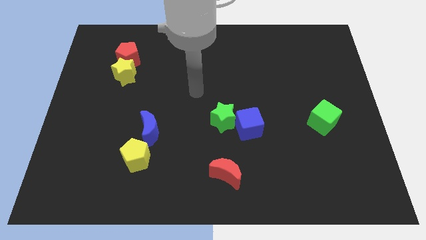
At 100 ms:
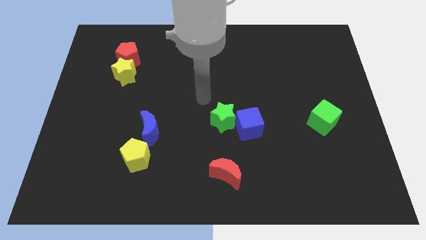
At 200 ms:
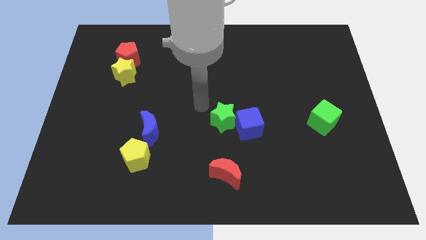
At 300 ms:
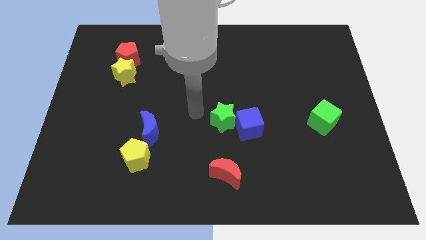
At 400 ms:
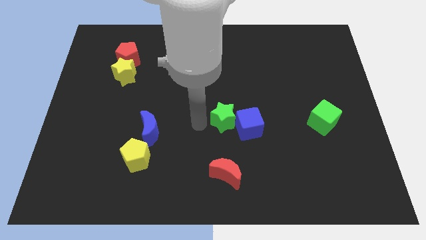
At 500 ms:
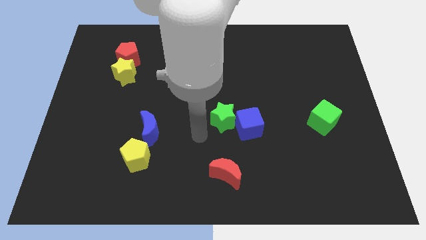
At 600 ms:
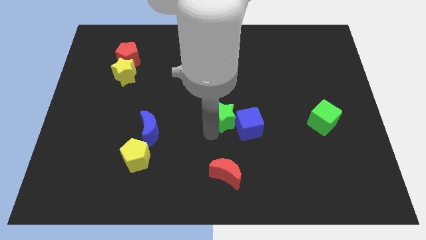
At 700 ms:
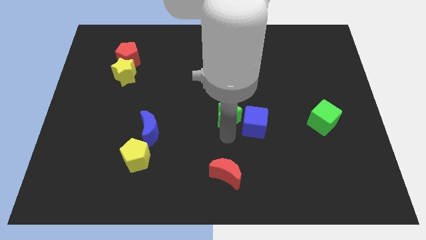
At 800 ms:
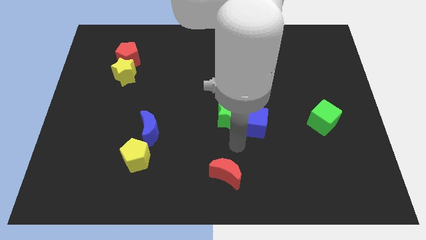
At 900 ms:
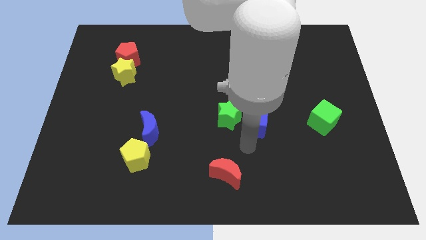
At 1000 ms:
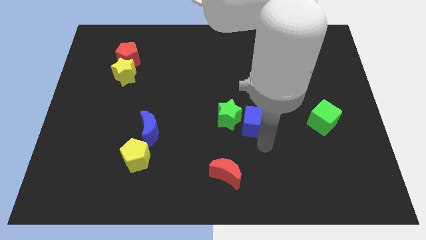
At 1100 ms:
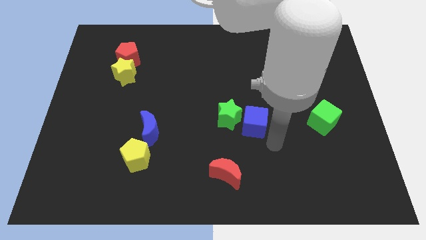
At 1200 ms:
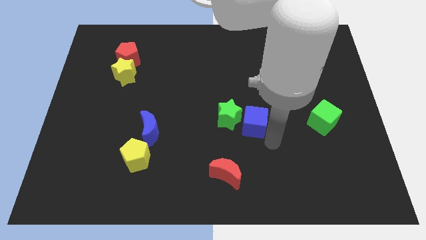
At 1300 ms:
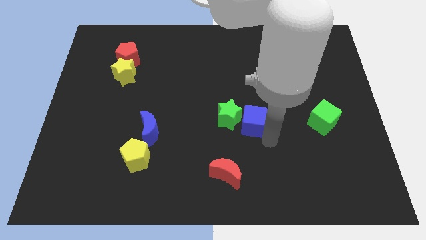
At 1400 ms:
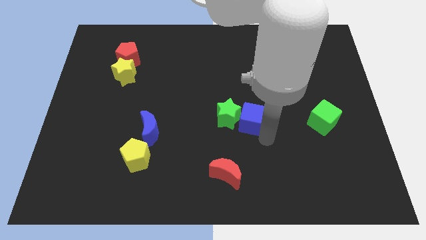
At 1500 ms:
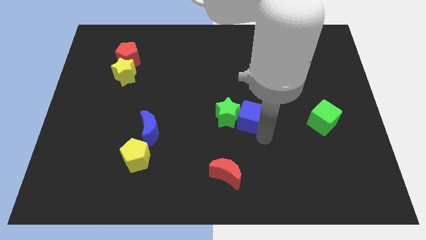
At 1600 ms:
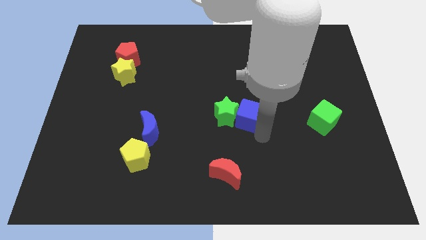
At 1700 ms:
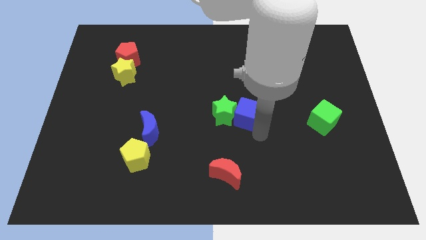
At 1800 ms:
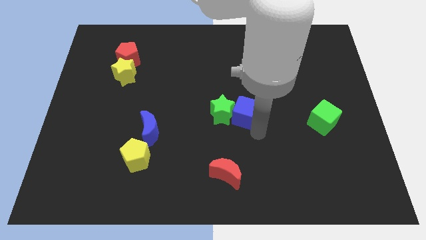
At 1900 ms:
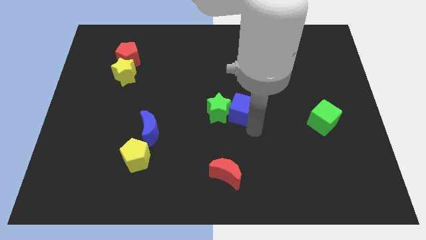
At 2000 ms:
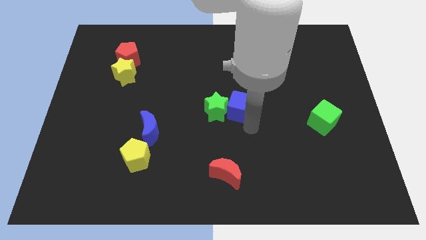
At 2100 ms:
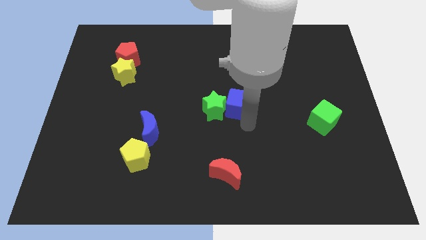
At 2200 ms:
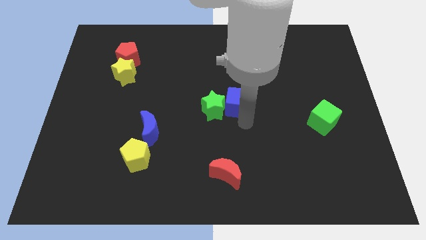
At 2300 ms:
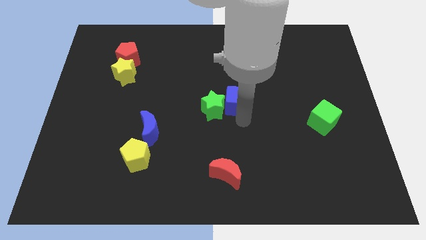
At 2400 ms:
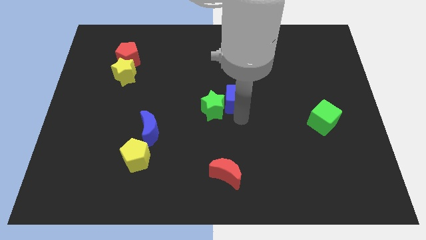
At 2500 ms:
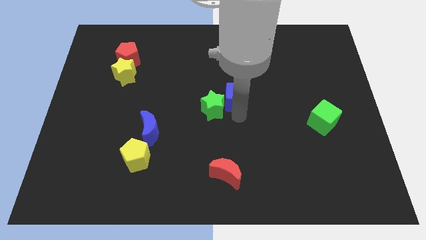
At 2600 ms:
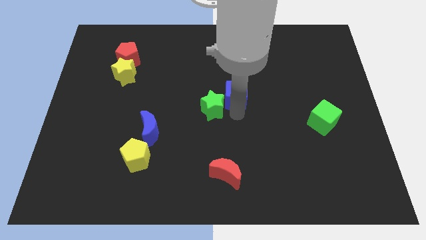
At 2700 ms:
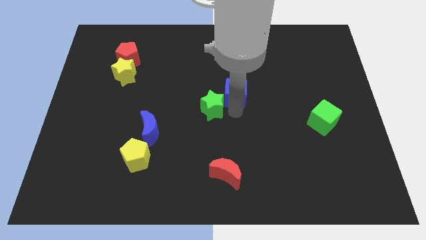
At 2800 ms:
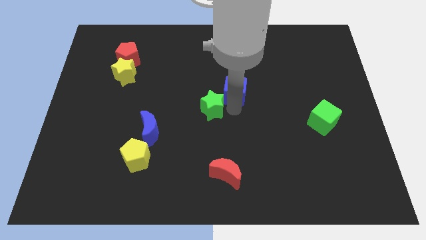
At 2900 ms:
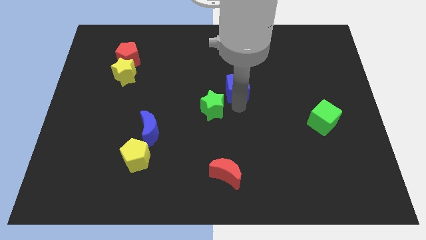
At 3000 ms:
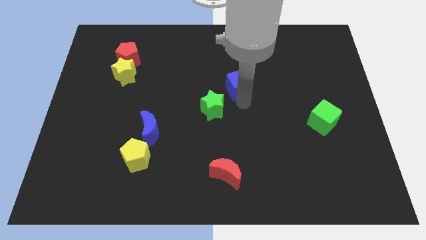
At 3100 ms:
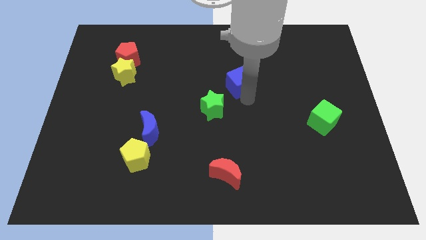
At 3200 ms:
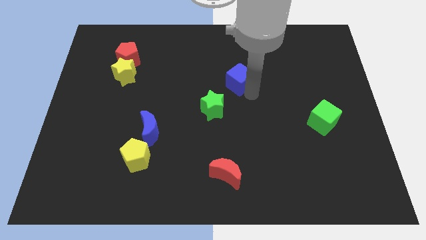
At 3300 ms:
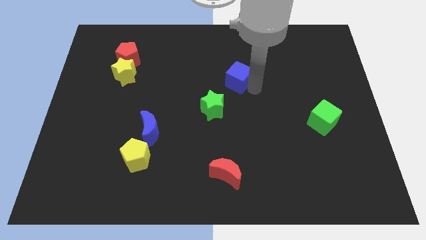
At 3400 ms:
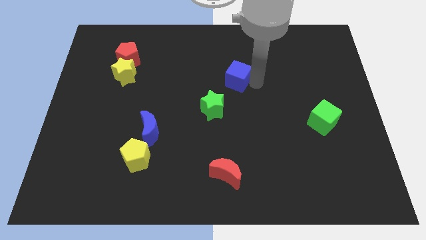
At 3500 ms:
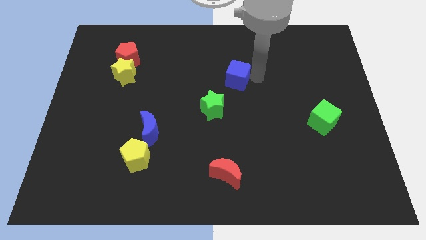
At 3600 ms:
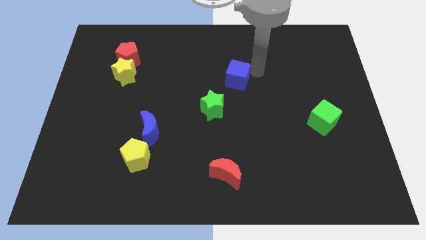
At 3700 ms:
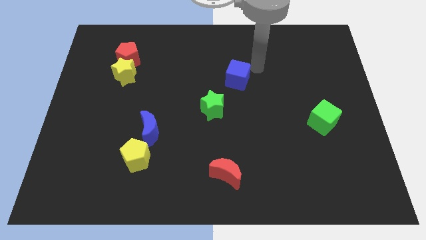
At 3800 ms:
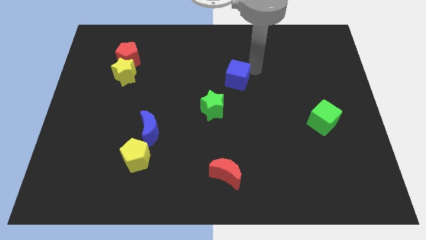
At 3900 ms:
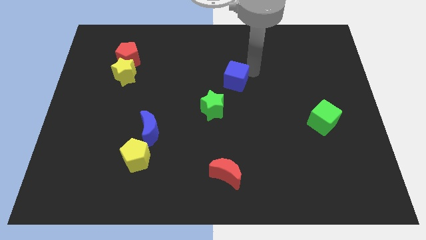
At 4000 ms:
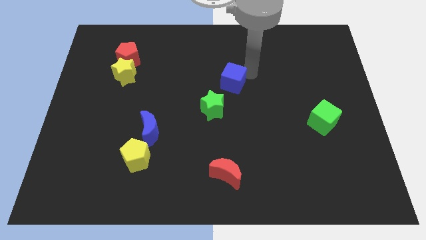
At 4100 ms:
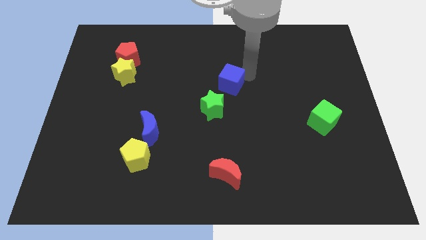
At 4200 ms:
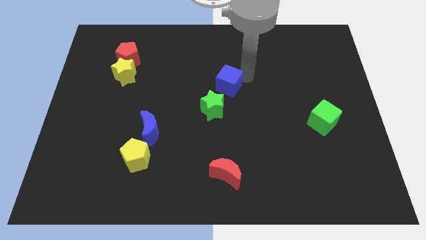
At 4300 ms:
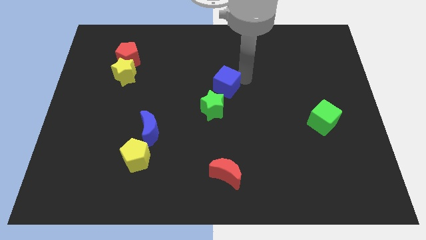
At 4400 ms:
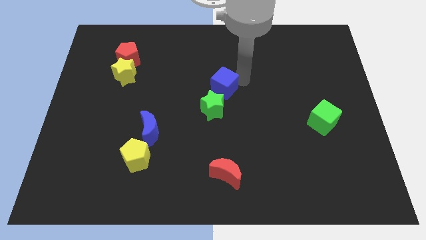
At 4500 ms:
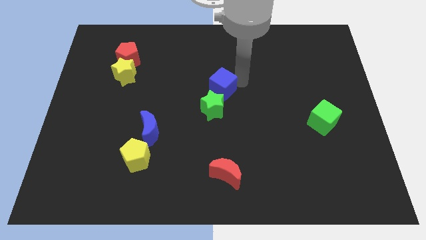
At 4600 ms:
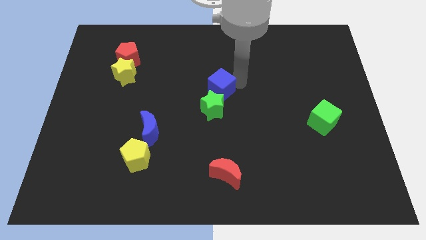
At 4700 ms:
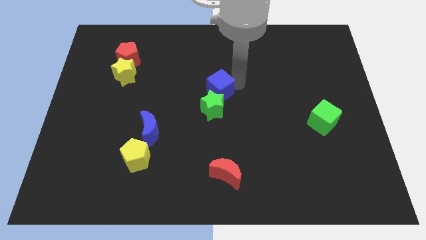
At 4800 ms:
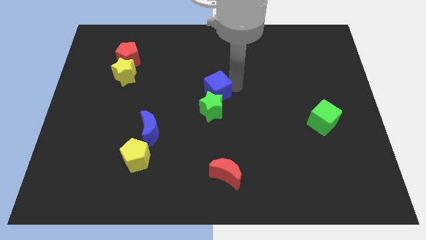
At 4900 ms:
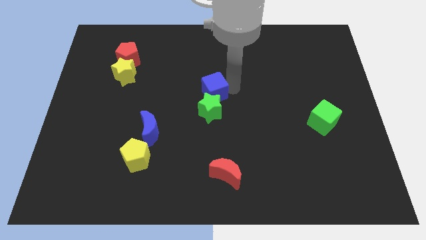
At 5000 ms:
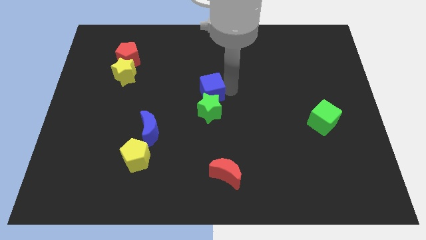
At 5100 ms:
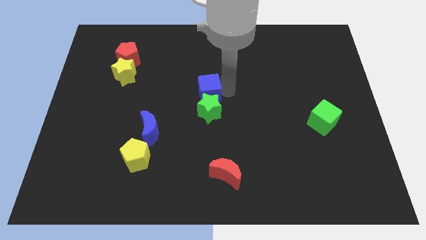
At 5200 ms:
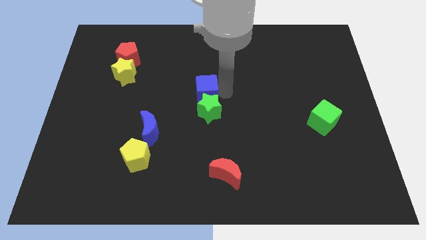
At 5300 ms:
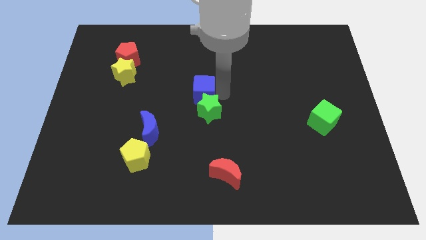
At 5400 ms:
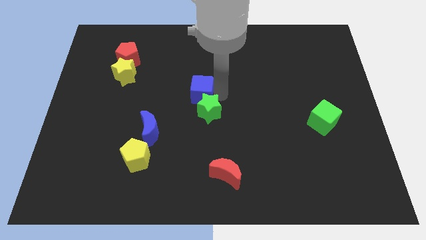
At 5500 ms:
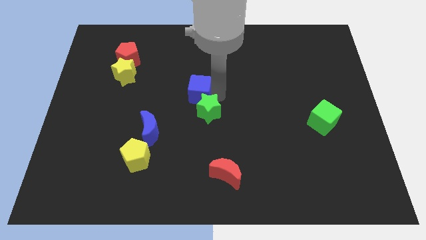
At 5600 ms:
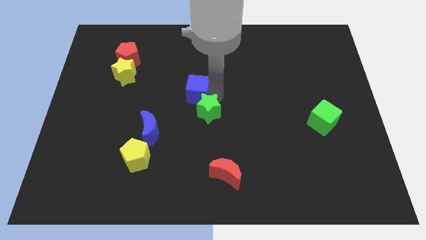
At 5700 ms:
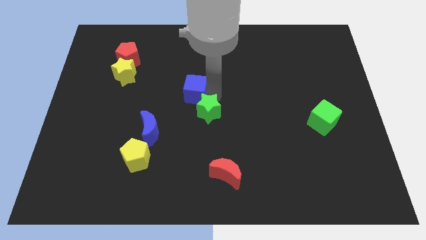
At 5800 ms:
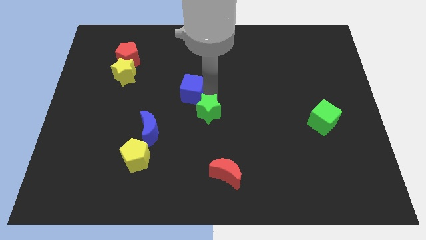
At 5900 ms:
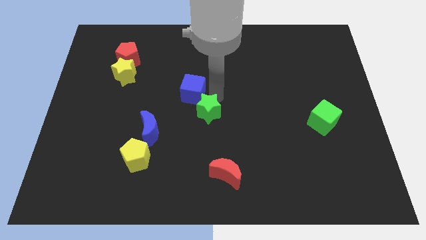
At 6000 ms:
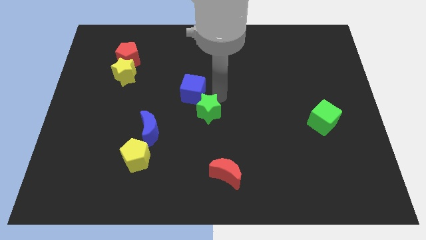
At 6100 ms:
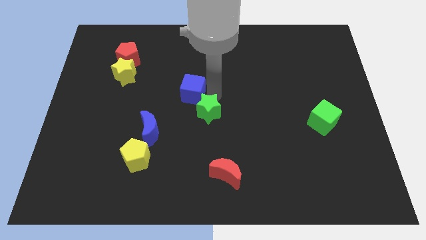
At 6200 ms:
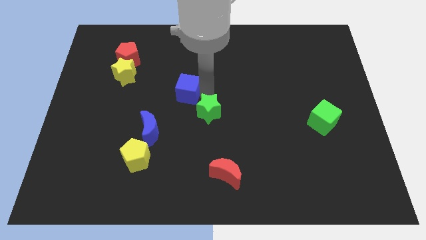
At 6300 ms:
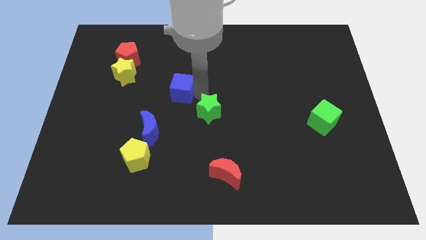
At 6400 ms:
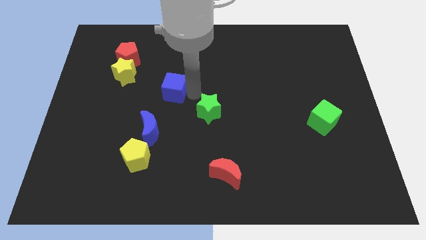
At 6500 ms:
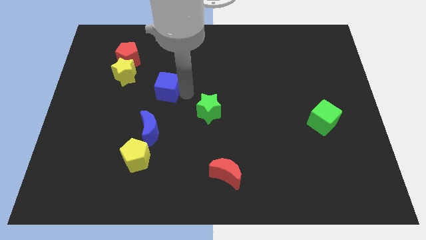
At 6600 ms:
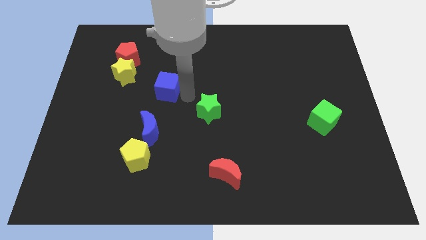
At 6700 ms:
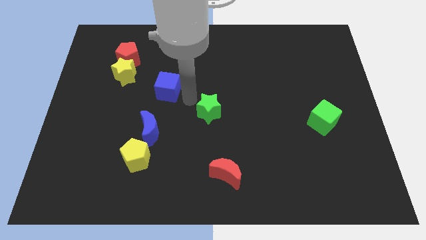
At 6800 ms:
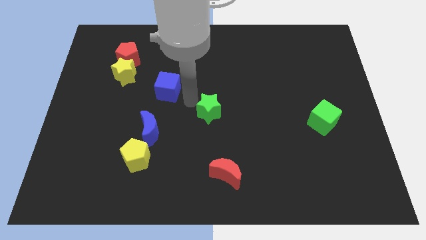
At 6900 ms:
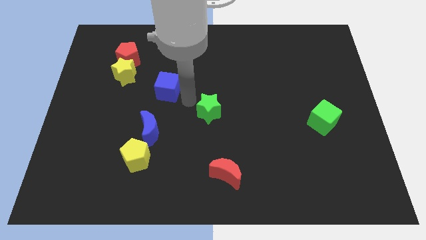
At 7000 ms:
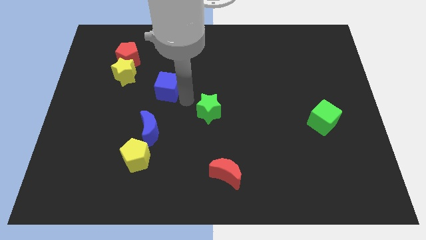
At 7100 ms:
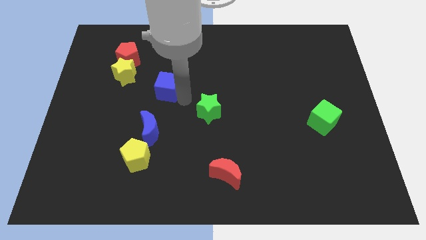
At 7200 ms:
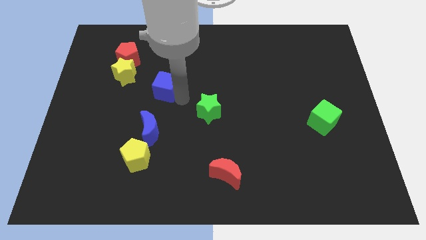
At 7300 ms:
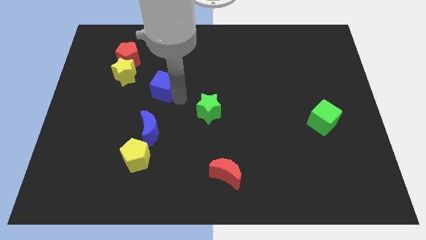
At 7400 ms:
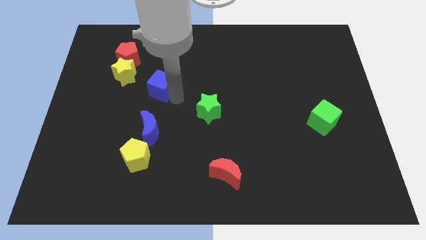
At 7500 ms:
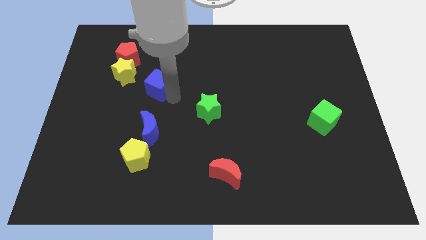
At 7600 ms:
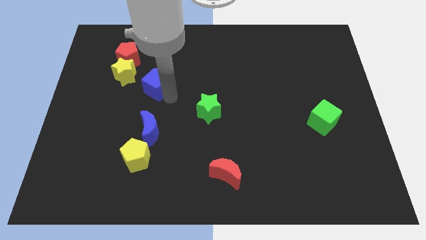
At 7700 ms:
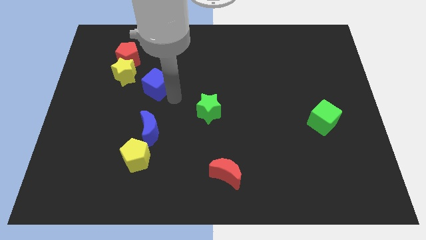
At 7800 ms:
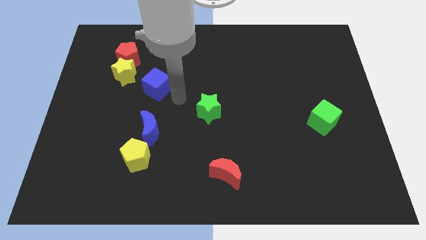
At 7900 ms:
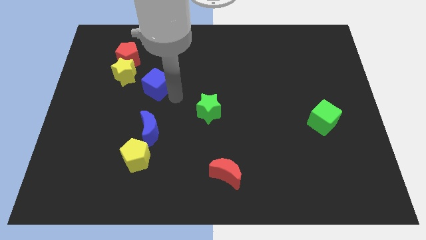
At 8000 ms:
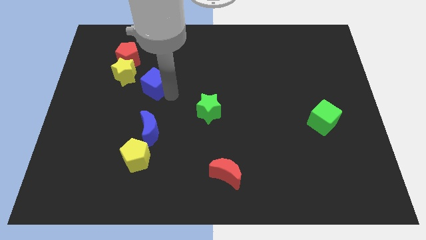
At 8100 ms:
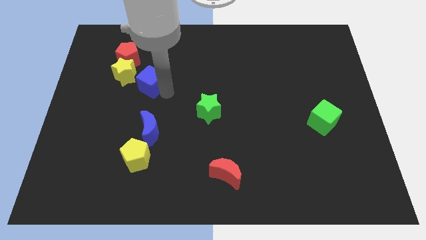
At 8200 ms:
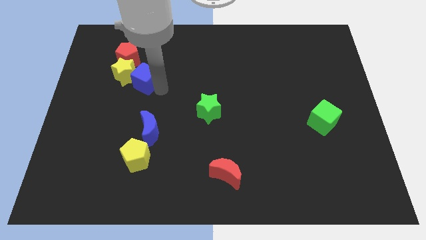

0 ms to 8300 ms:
put the blue cube towards the yellow star
